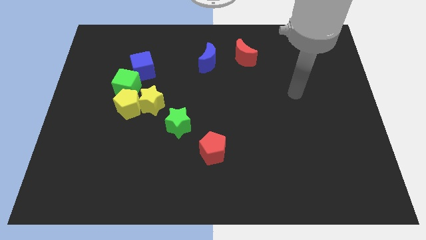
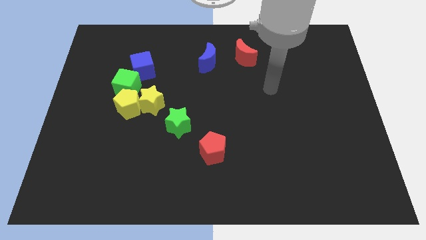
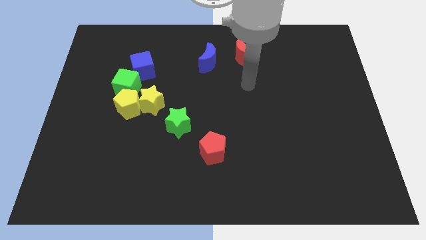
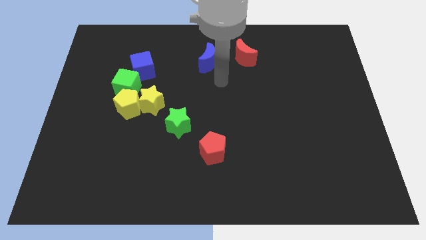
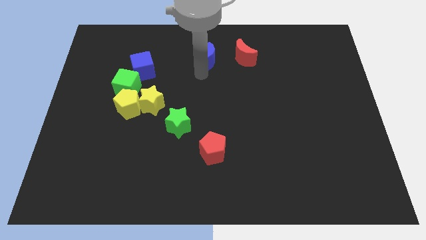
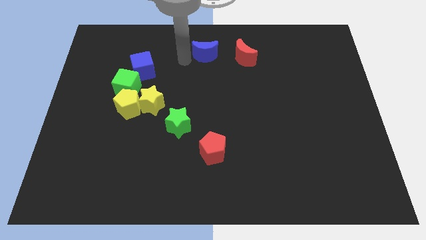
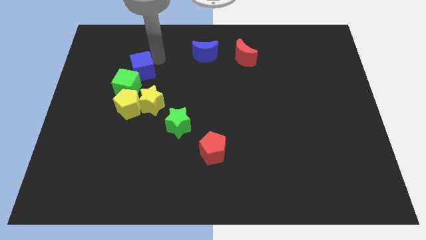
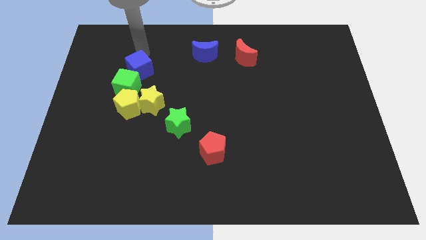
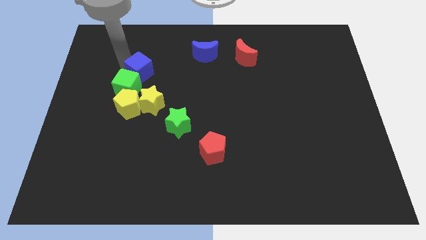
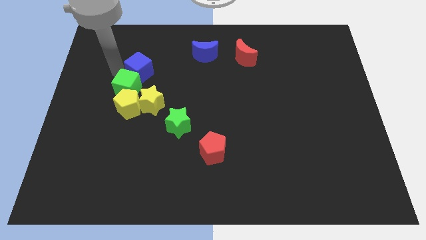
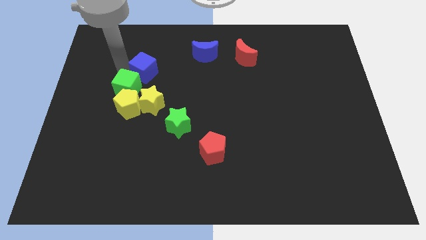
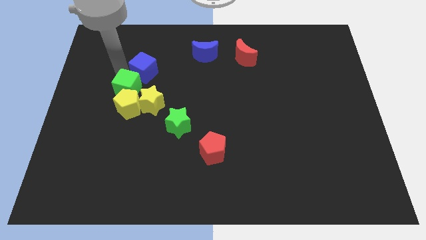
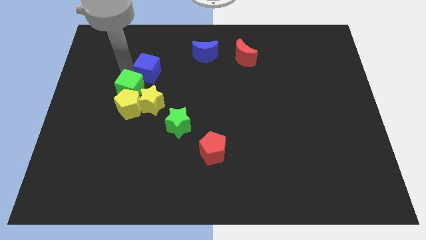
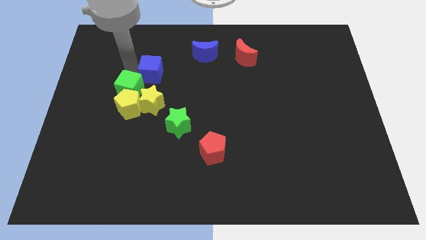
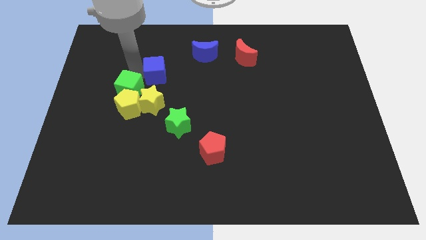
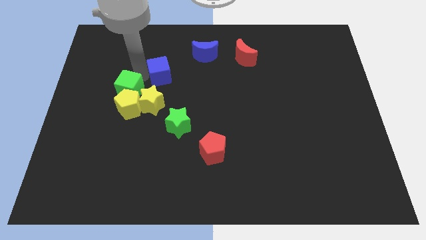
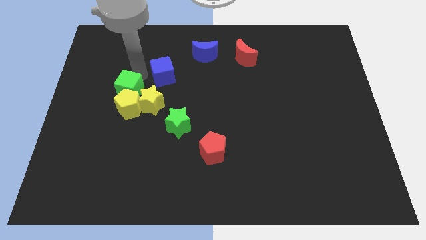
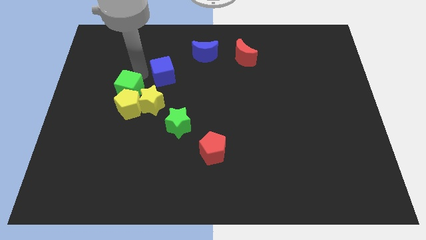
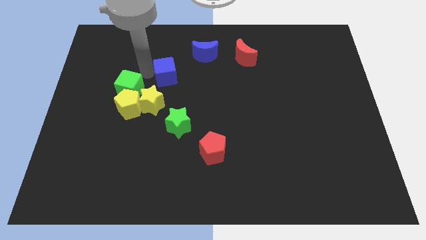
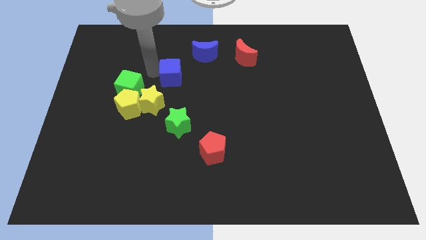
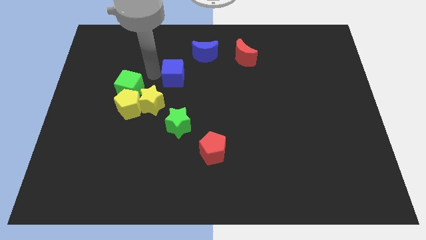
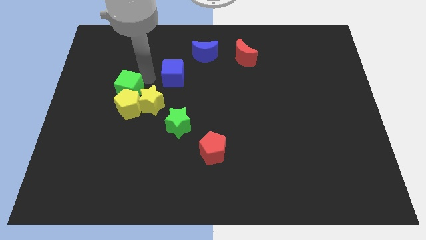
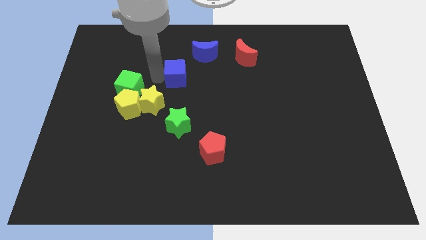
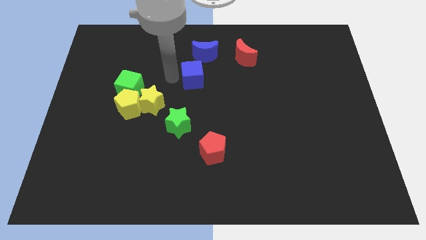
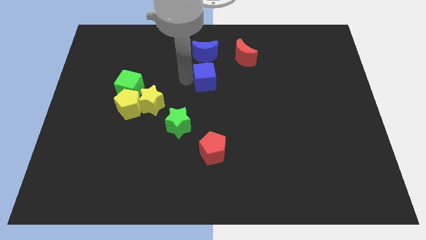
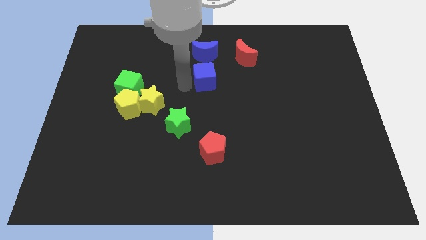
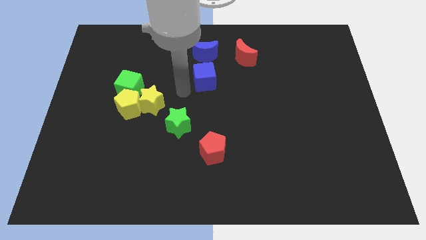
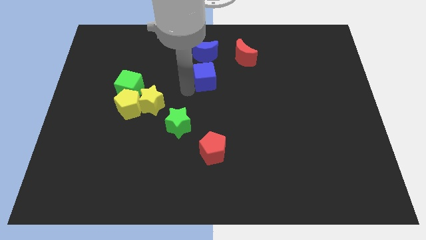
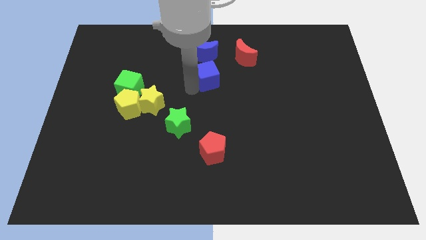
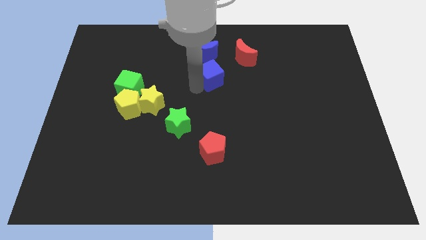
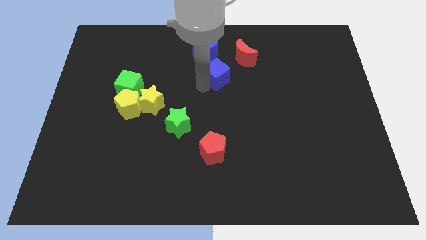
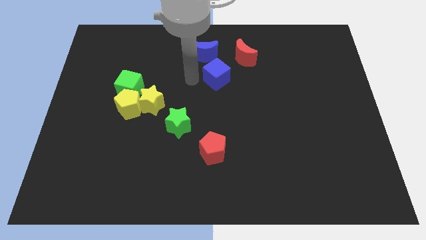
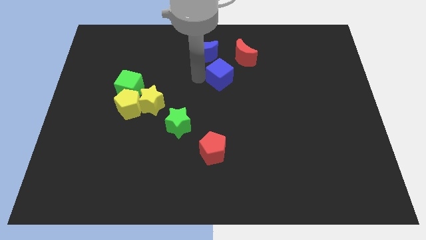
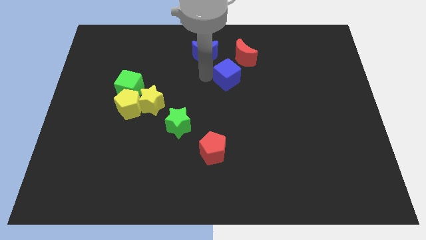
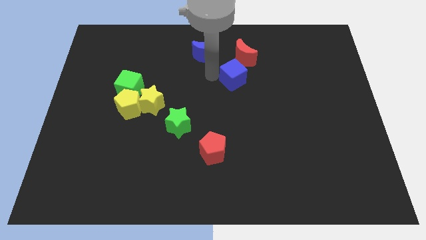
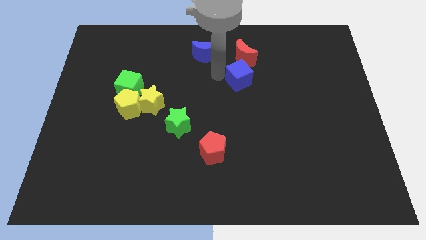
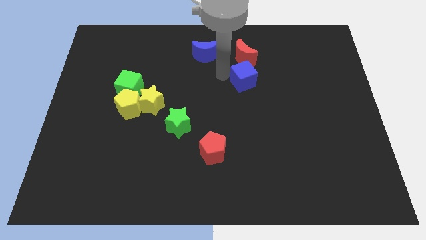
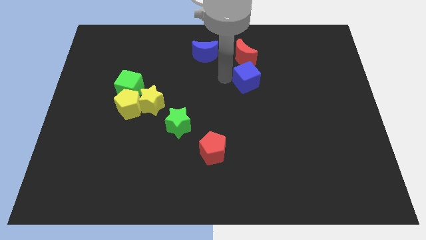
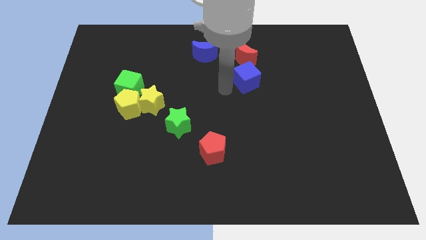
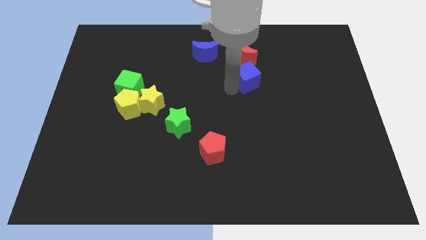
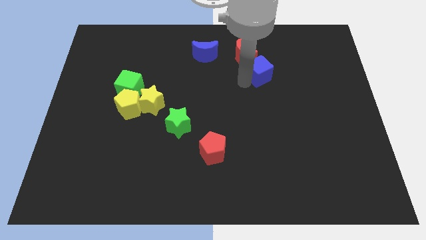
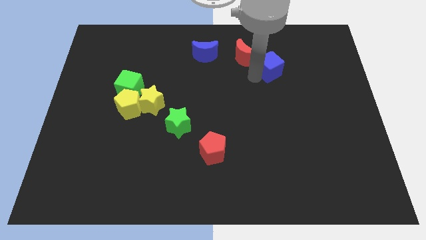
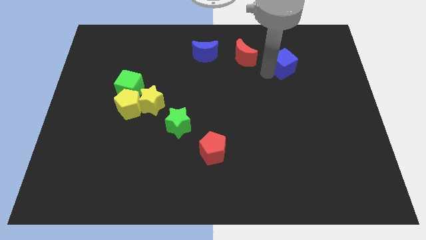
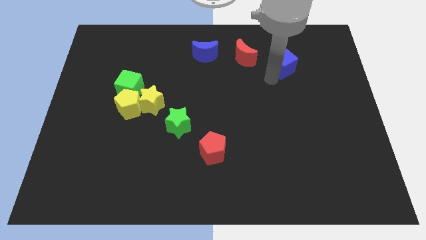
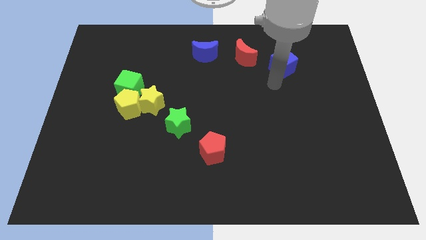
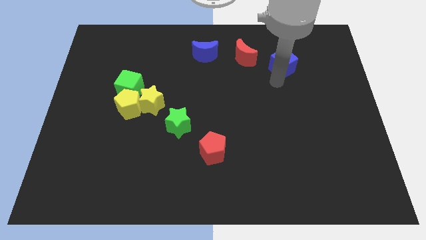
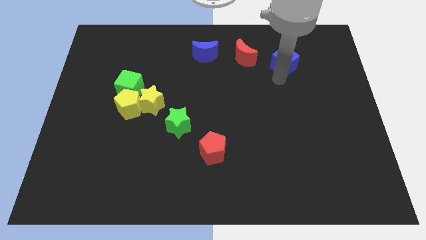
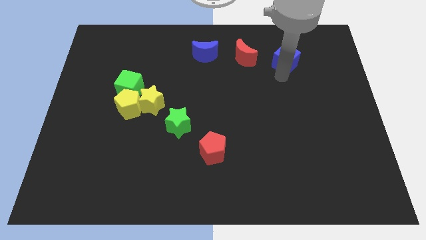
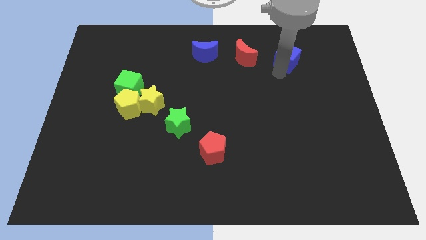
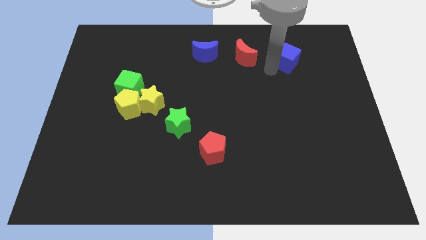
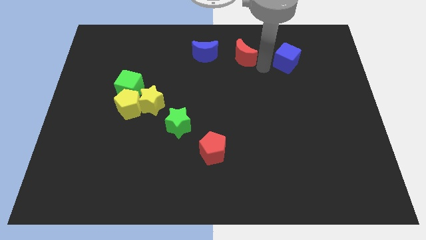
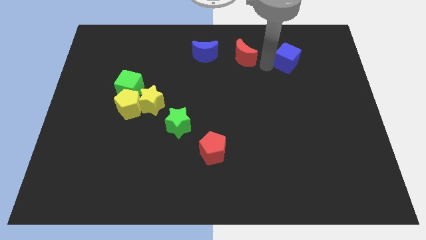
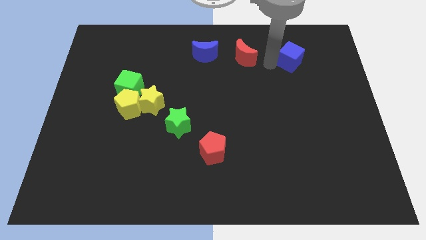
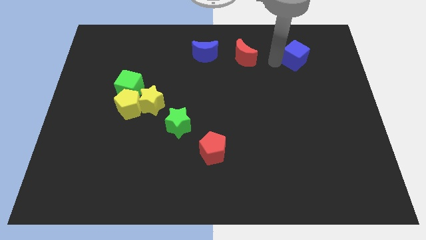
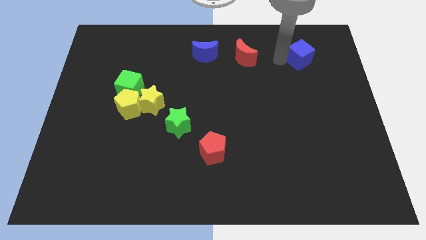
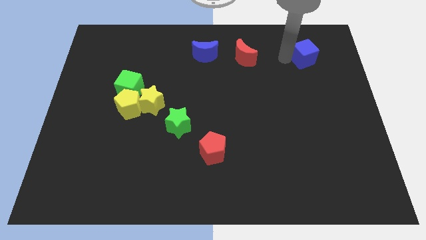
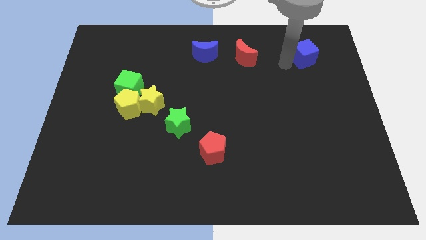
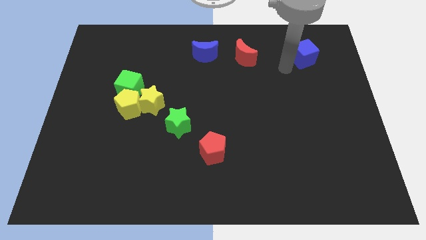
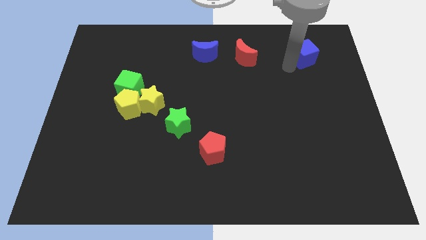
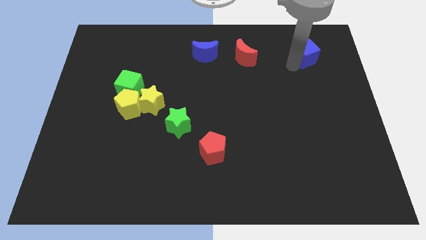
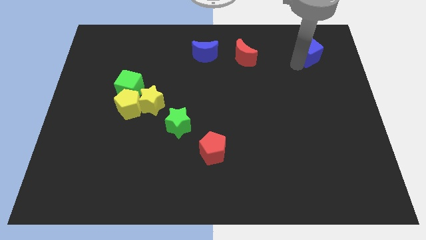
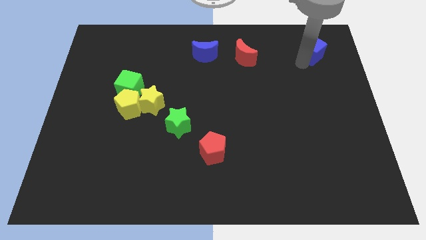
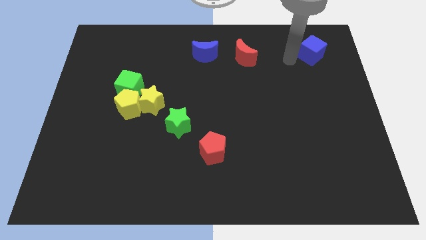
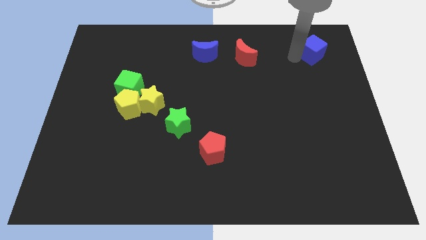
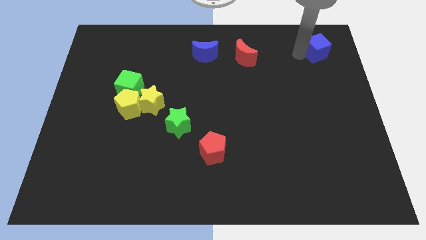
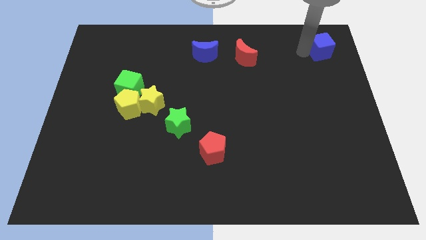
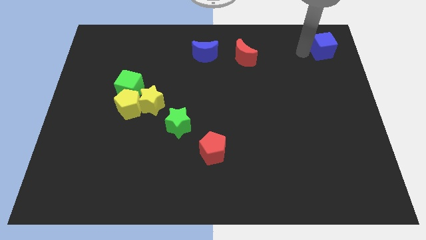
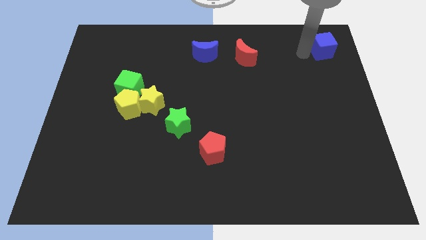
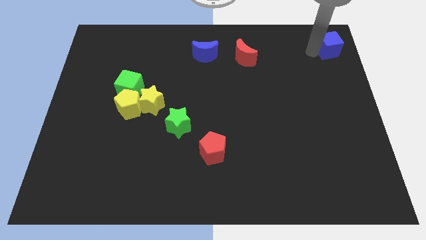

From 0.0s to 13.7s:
put the blue cube to the upper right corner
